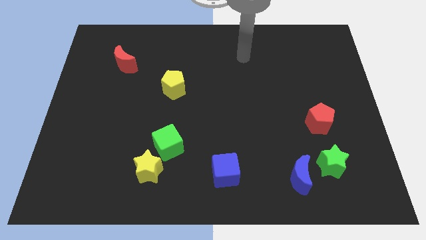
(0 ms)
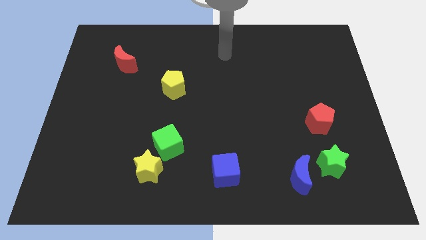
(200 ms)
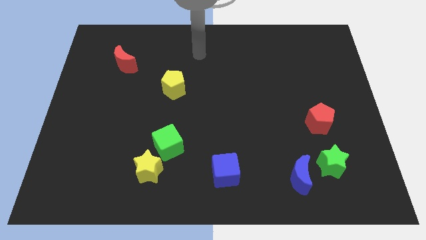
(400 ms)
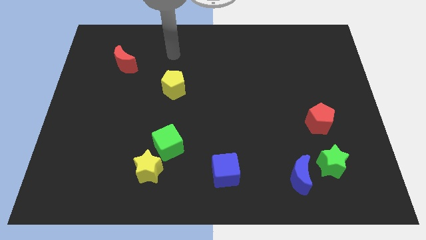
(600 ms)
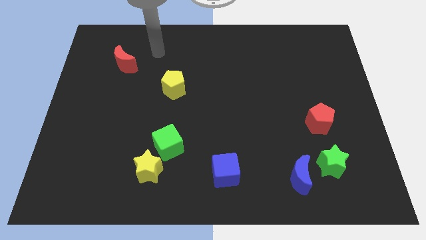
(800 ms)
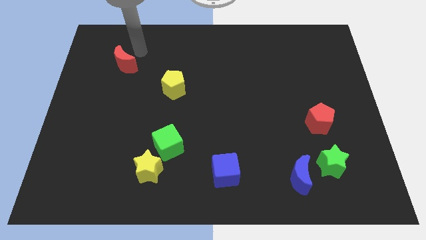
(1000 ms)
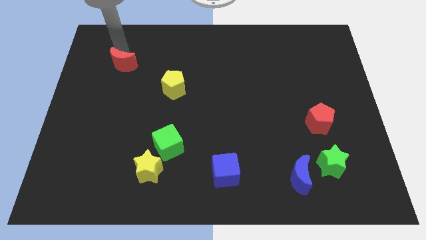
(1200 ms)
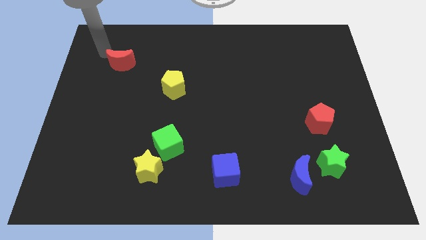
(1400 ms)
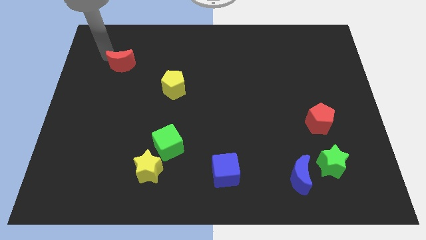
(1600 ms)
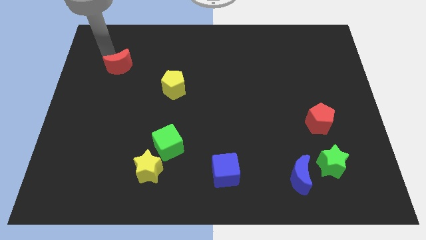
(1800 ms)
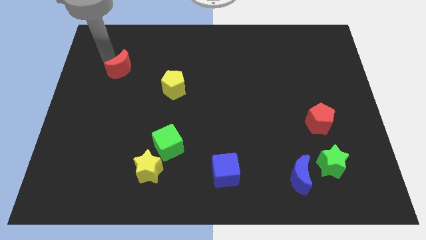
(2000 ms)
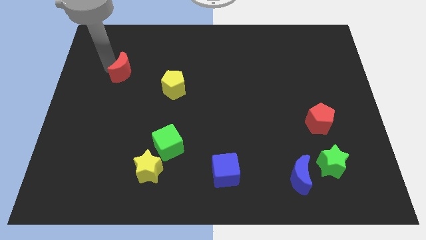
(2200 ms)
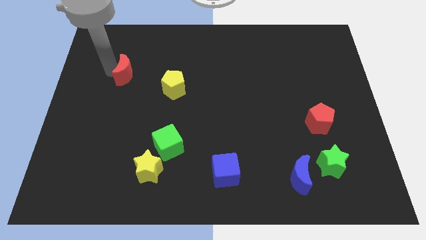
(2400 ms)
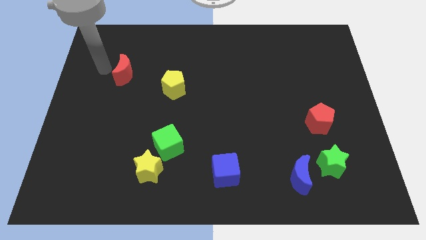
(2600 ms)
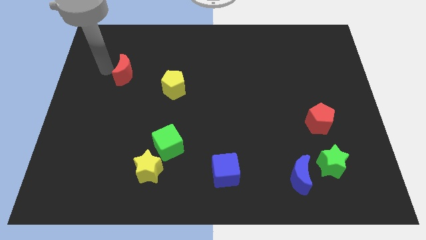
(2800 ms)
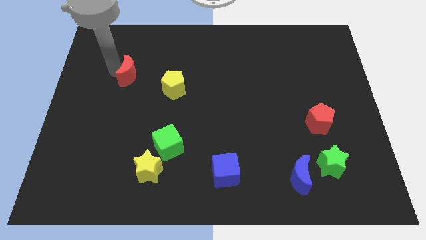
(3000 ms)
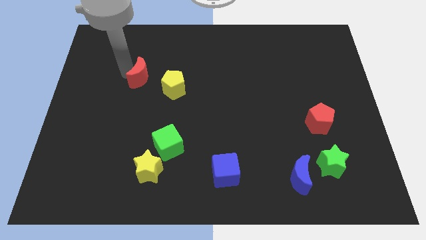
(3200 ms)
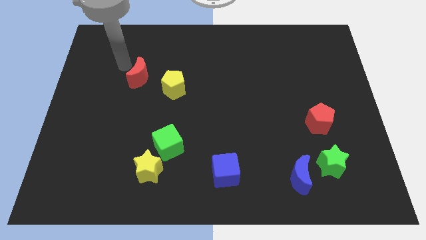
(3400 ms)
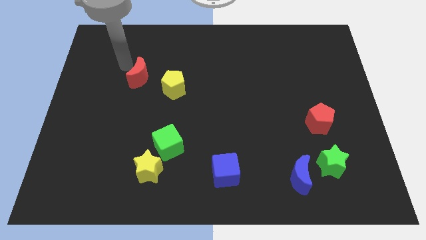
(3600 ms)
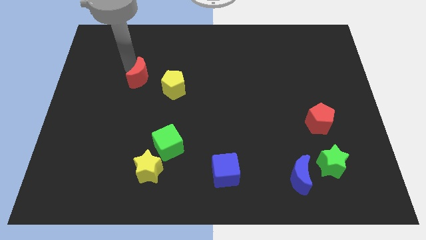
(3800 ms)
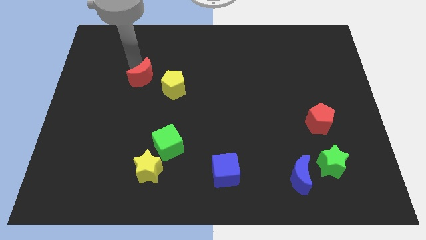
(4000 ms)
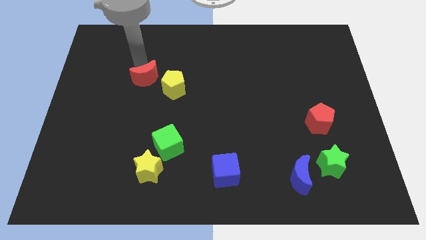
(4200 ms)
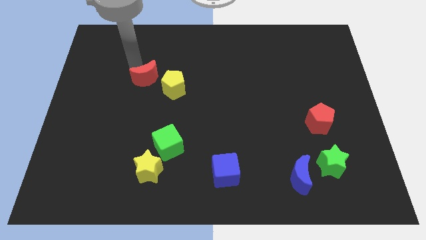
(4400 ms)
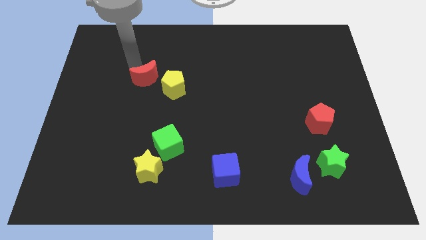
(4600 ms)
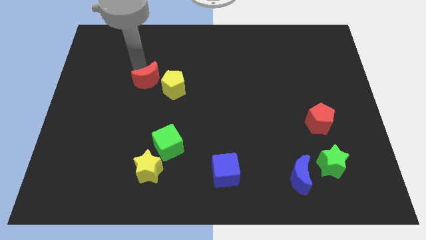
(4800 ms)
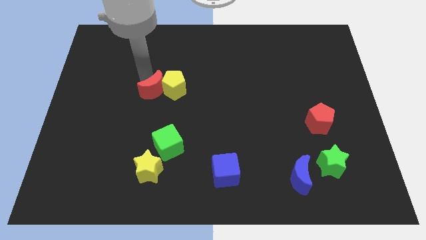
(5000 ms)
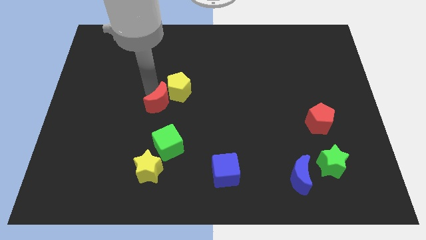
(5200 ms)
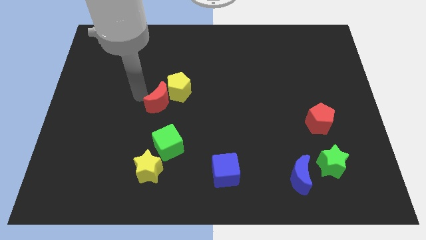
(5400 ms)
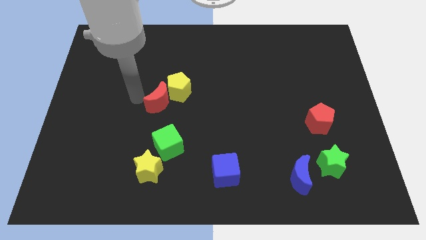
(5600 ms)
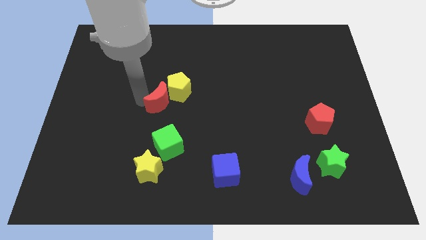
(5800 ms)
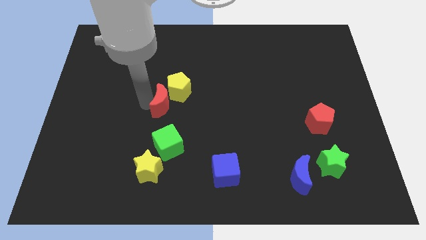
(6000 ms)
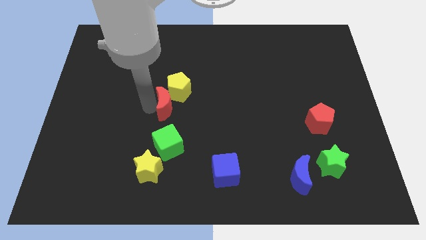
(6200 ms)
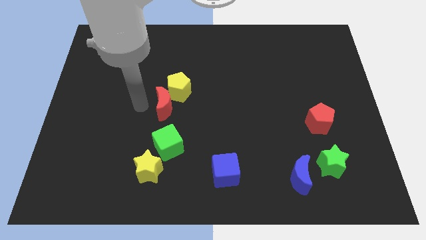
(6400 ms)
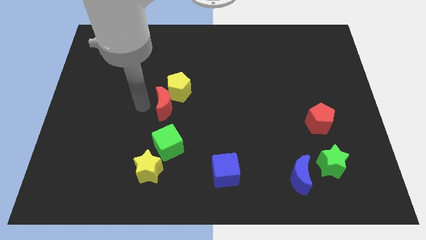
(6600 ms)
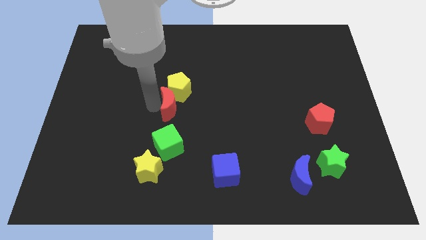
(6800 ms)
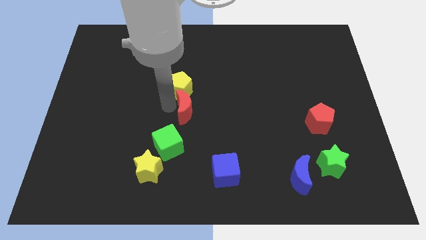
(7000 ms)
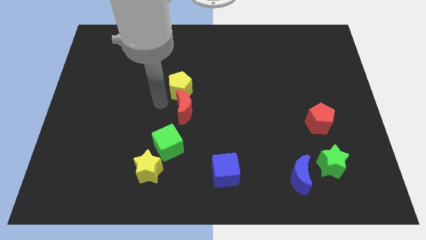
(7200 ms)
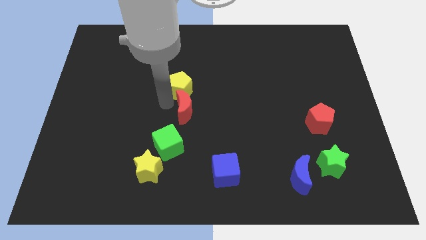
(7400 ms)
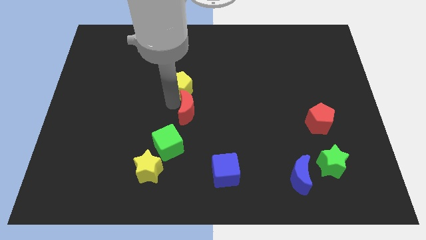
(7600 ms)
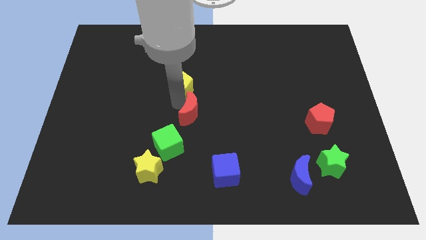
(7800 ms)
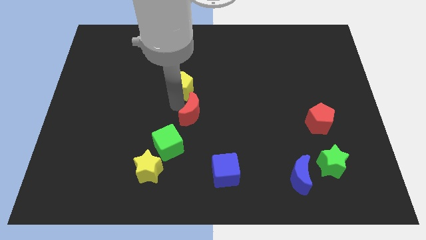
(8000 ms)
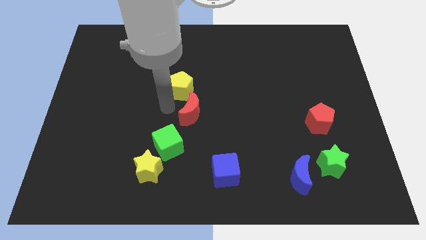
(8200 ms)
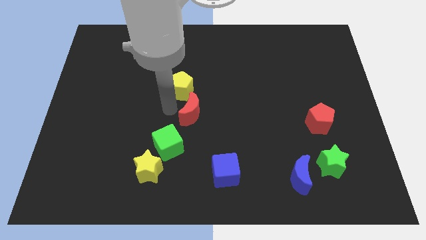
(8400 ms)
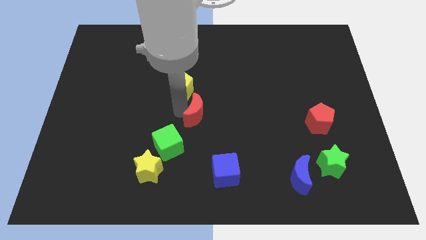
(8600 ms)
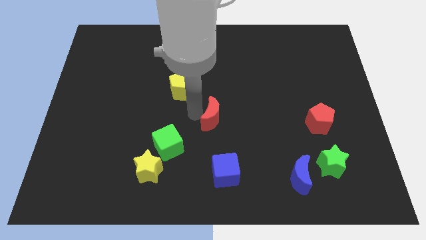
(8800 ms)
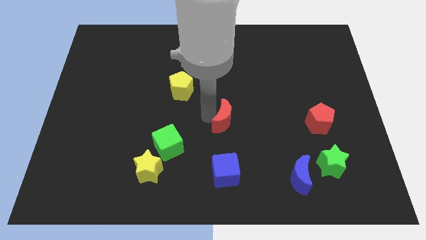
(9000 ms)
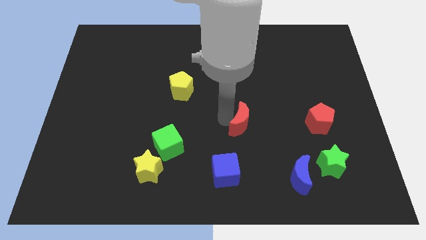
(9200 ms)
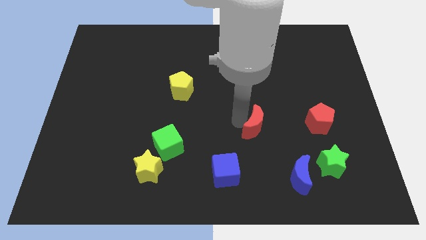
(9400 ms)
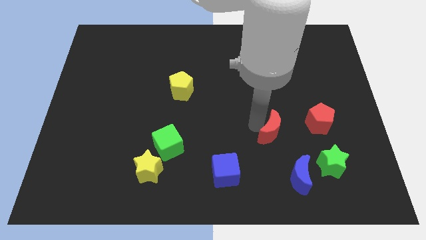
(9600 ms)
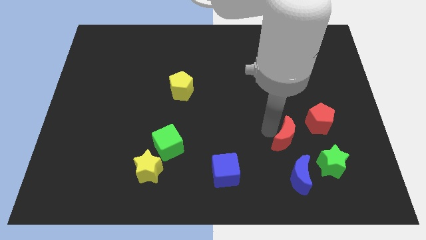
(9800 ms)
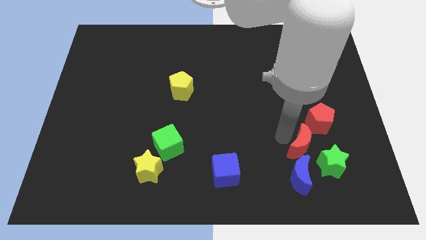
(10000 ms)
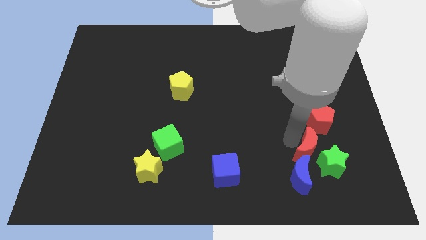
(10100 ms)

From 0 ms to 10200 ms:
put the red moon towards the green star

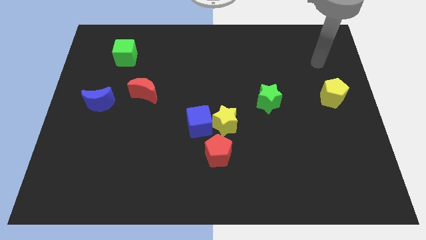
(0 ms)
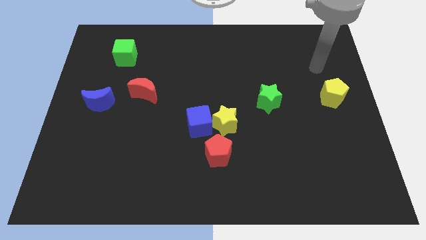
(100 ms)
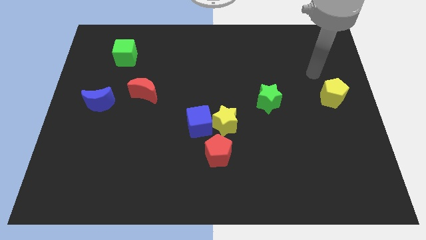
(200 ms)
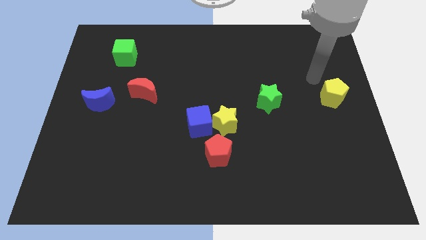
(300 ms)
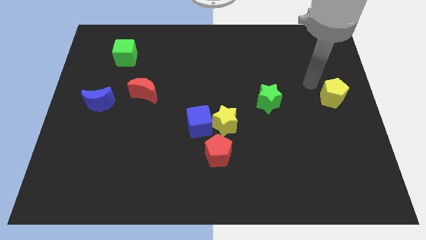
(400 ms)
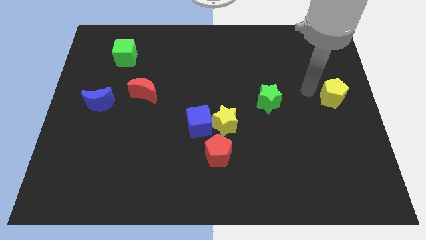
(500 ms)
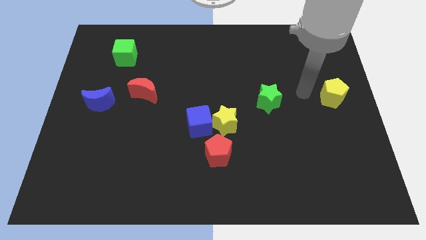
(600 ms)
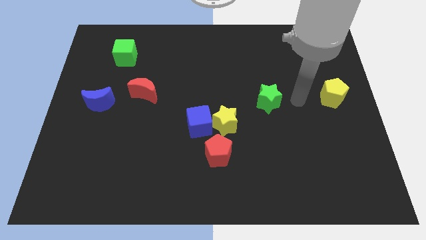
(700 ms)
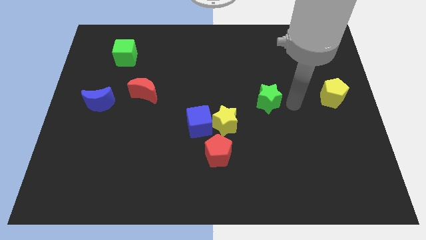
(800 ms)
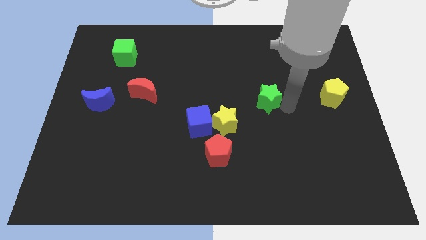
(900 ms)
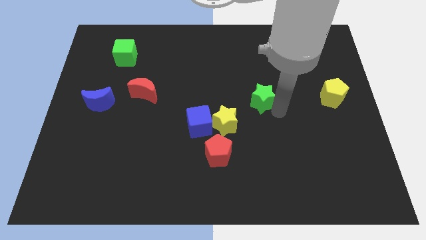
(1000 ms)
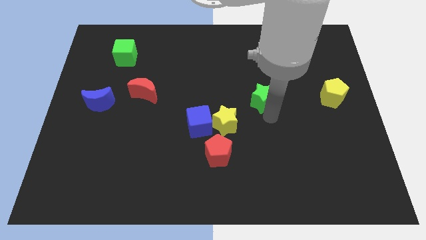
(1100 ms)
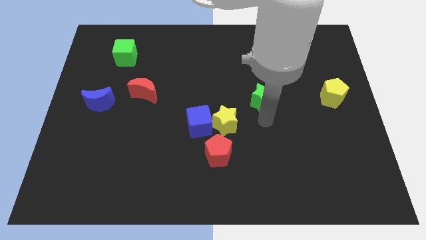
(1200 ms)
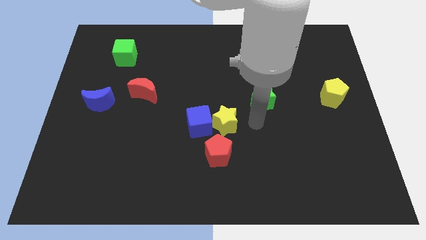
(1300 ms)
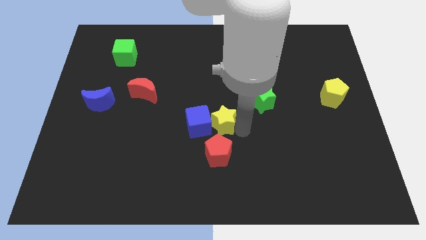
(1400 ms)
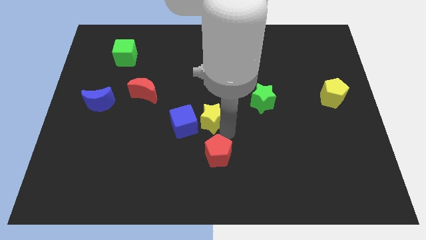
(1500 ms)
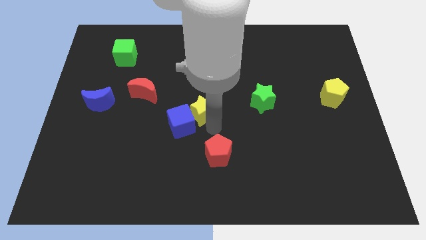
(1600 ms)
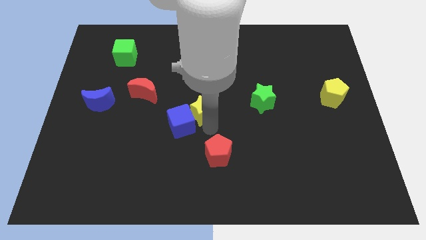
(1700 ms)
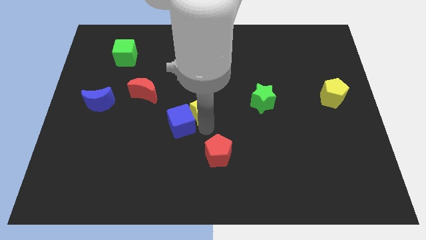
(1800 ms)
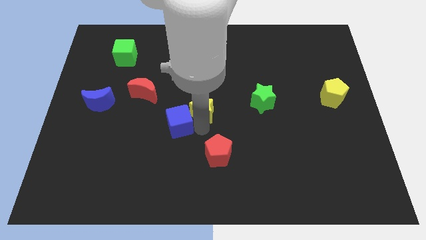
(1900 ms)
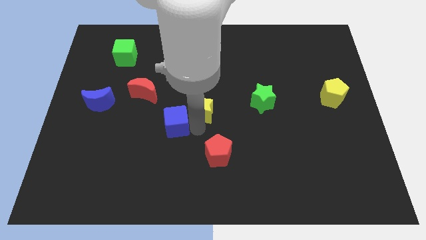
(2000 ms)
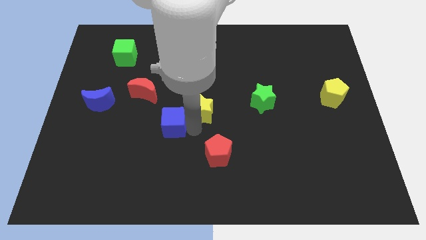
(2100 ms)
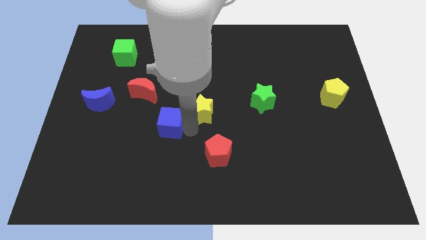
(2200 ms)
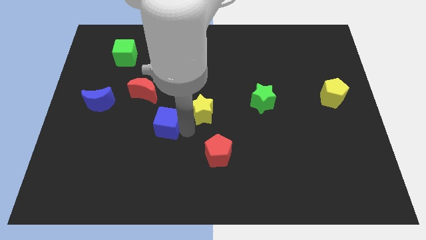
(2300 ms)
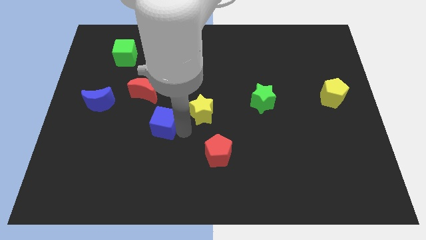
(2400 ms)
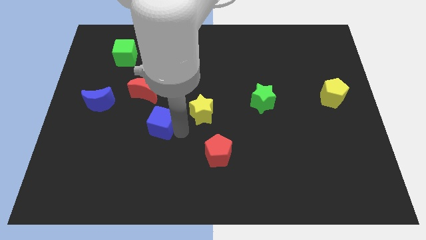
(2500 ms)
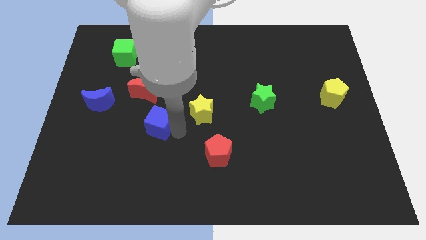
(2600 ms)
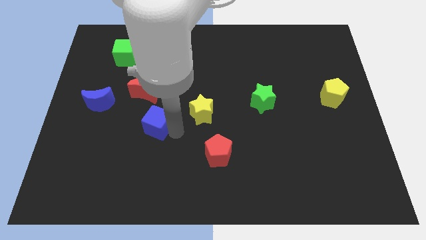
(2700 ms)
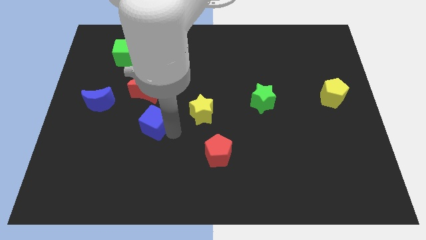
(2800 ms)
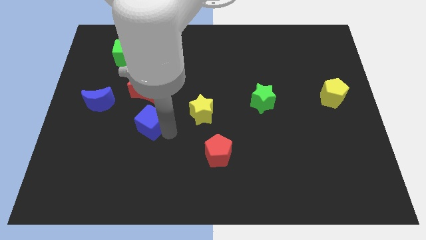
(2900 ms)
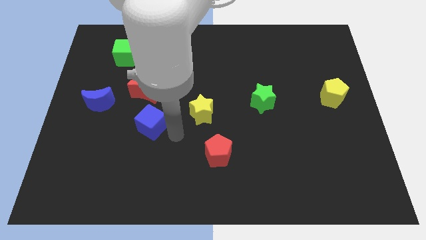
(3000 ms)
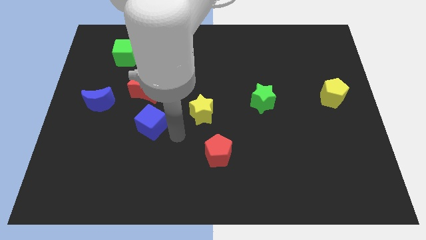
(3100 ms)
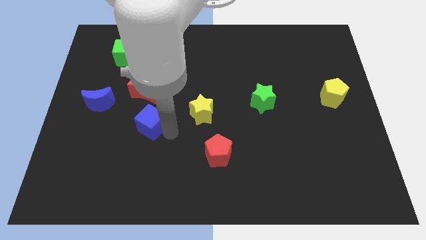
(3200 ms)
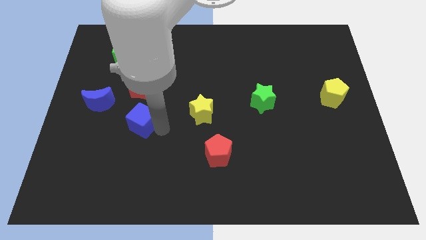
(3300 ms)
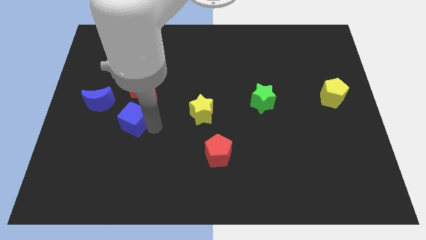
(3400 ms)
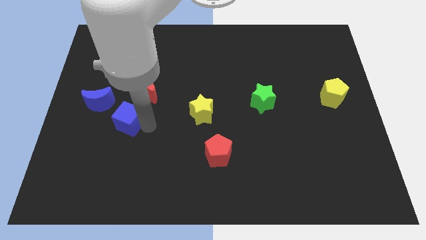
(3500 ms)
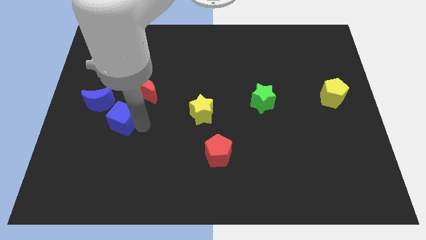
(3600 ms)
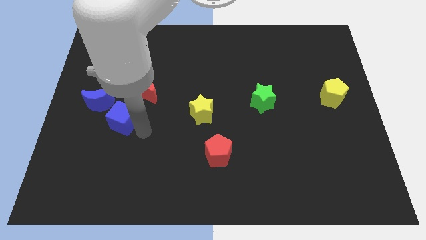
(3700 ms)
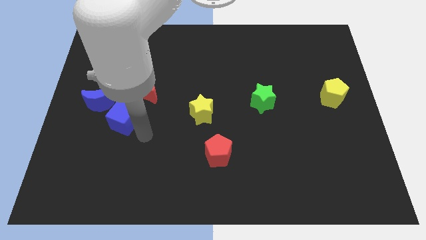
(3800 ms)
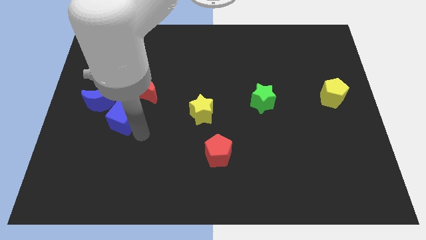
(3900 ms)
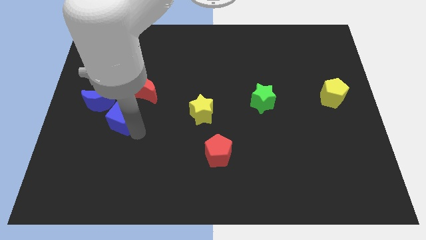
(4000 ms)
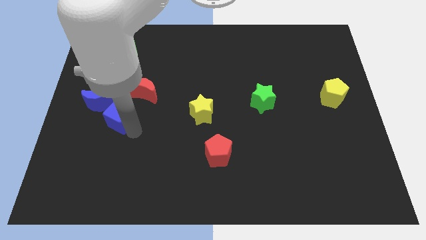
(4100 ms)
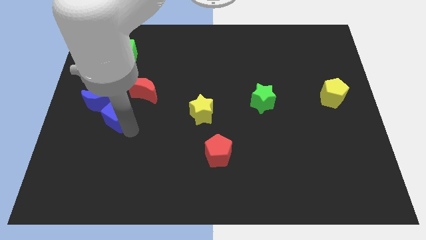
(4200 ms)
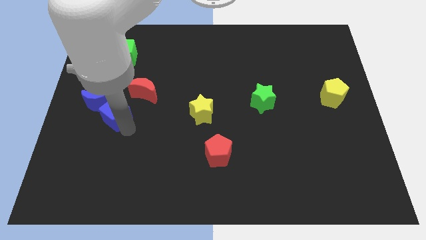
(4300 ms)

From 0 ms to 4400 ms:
move the blue cube to the blue moon
